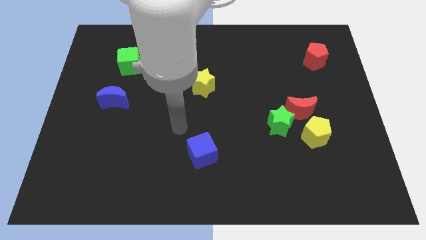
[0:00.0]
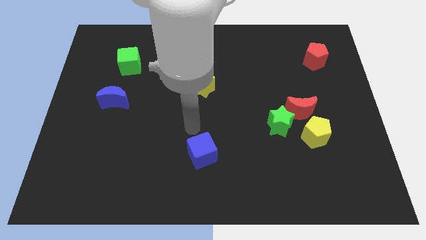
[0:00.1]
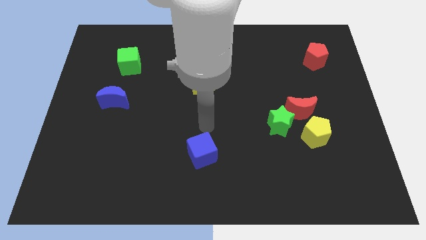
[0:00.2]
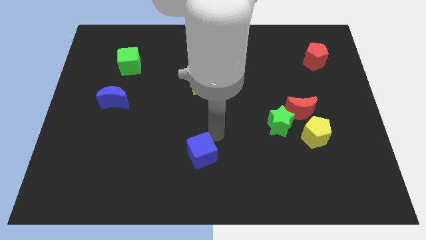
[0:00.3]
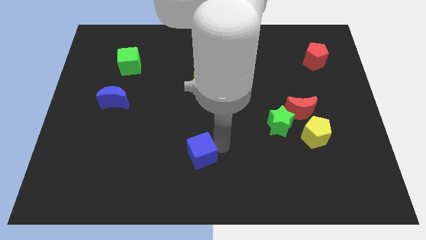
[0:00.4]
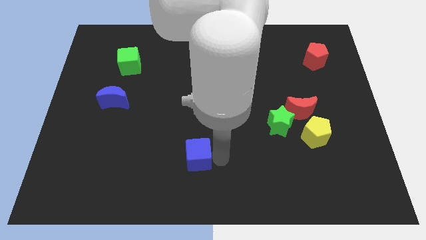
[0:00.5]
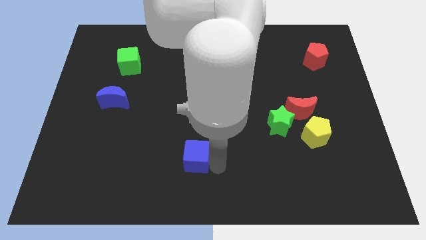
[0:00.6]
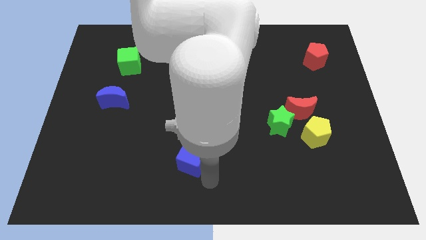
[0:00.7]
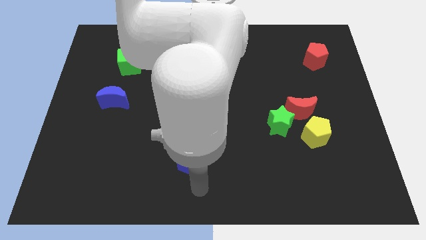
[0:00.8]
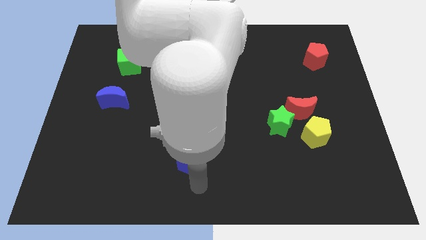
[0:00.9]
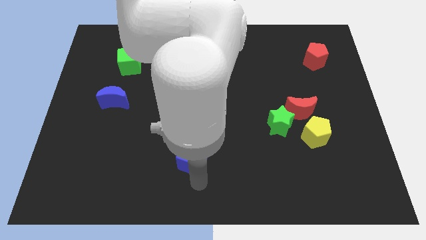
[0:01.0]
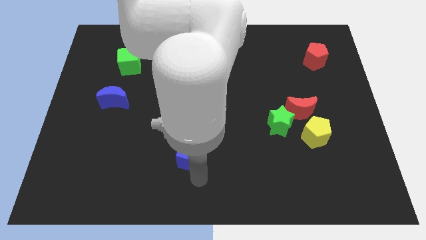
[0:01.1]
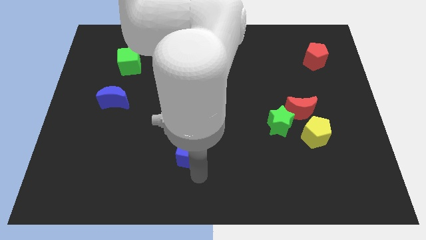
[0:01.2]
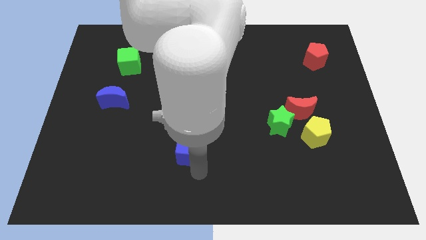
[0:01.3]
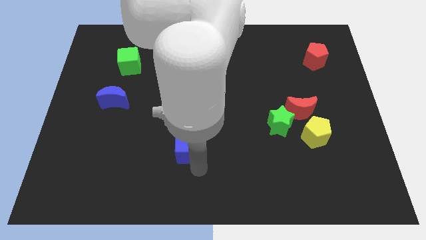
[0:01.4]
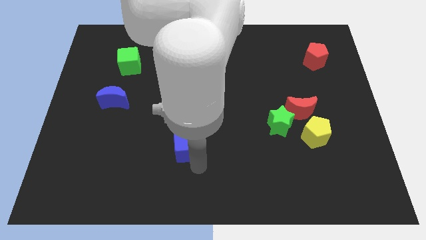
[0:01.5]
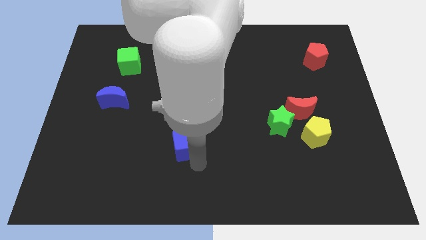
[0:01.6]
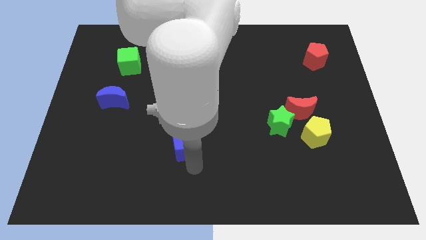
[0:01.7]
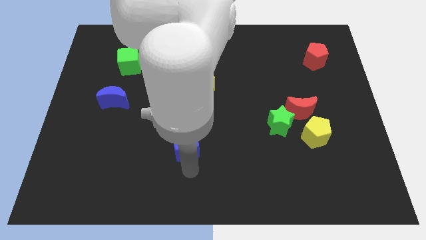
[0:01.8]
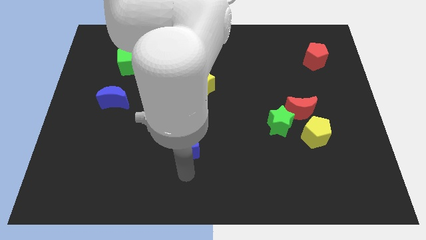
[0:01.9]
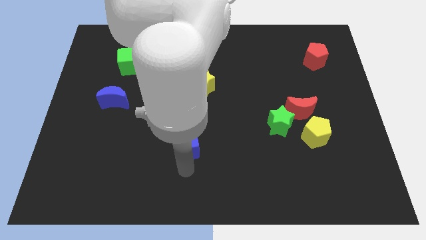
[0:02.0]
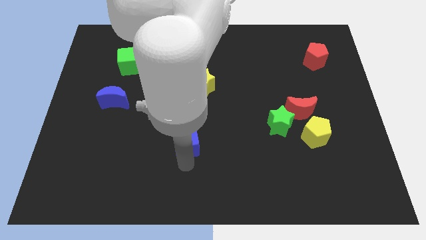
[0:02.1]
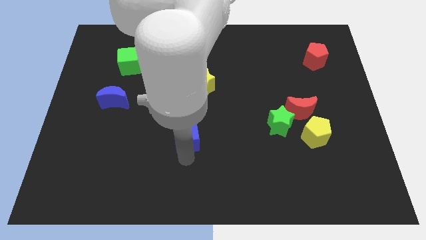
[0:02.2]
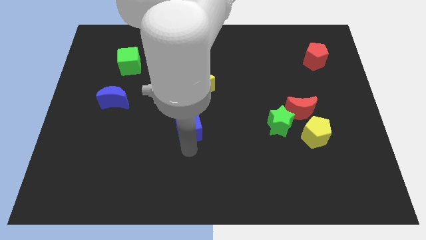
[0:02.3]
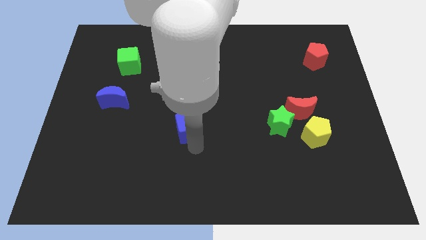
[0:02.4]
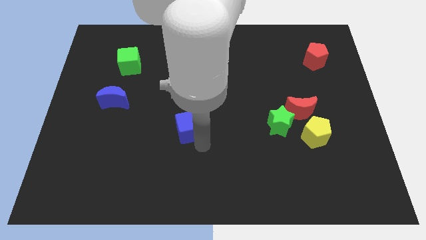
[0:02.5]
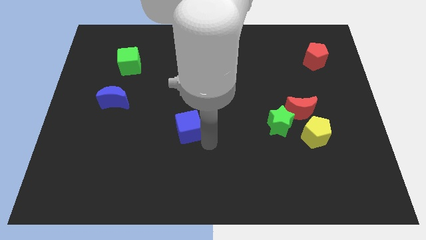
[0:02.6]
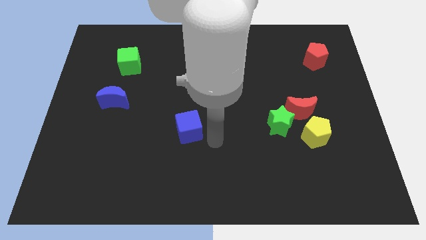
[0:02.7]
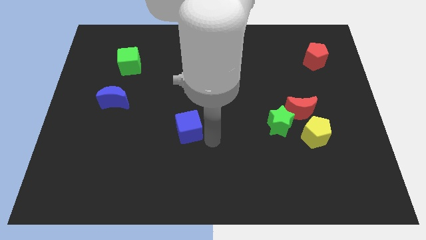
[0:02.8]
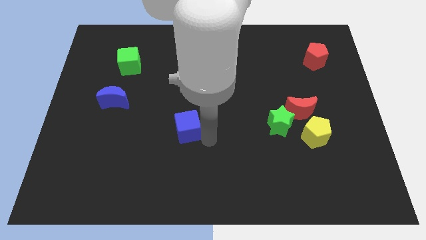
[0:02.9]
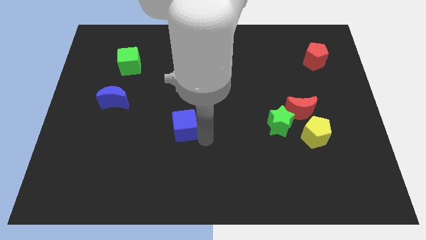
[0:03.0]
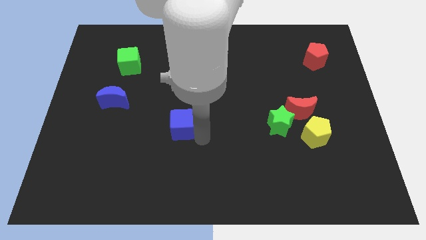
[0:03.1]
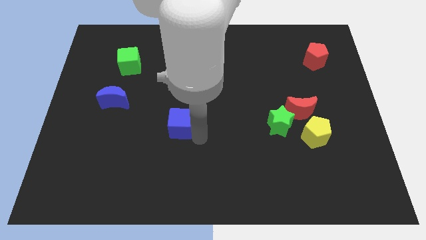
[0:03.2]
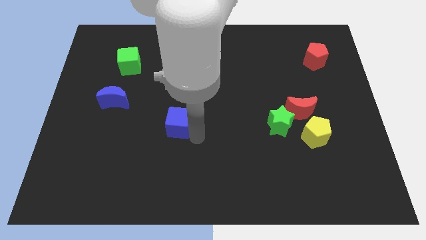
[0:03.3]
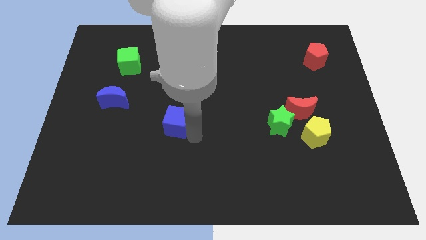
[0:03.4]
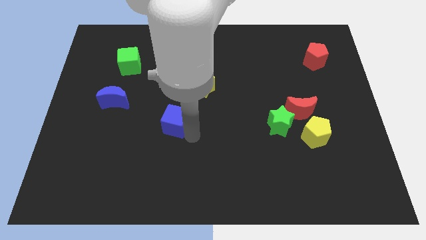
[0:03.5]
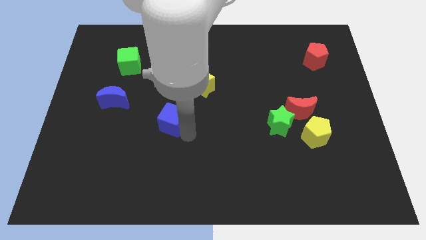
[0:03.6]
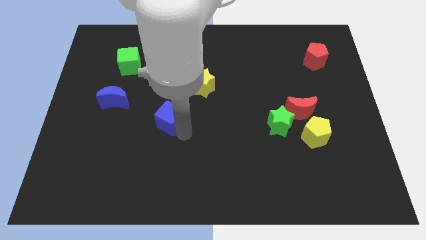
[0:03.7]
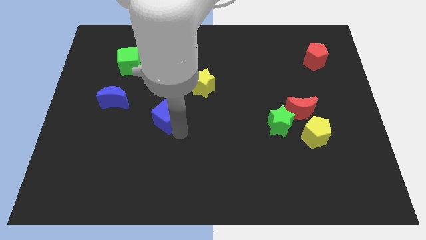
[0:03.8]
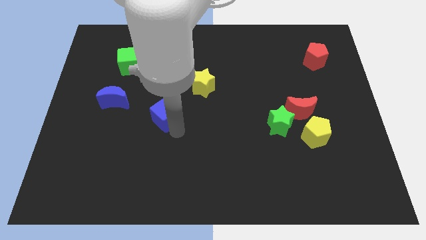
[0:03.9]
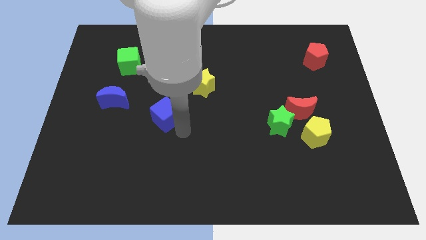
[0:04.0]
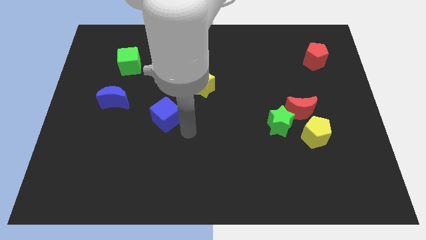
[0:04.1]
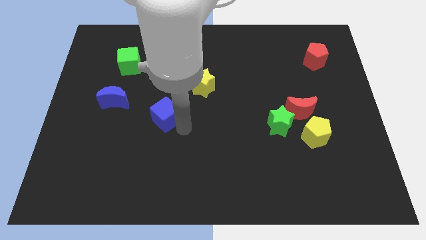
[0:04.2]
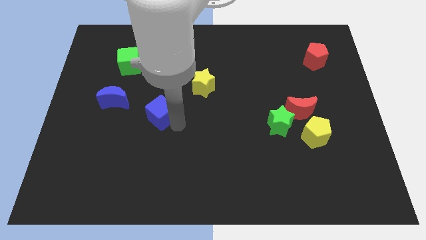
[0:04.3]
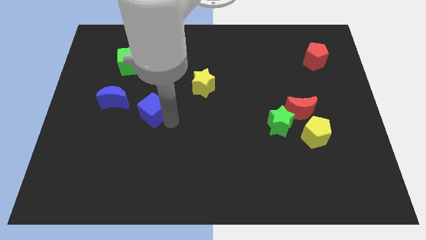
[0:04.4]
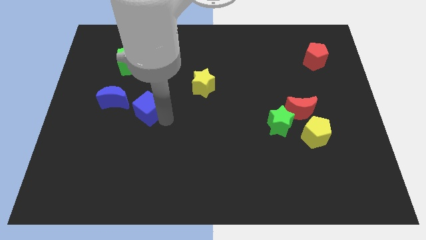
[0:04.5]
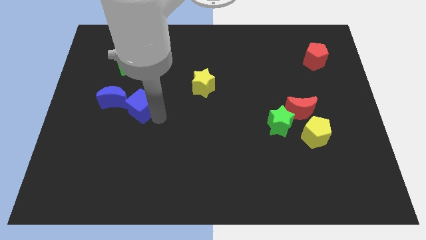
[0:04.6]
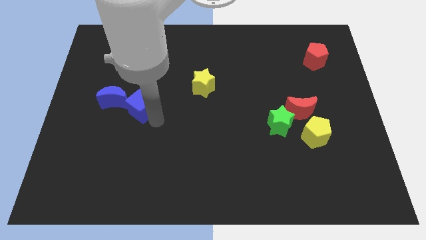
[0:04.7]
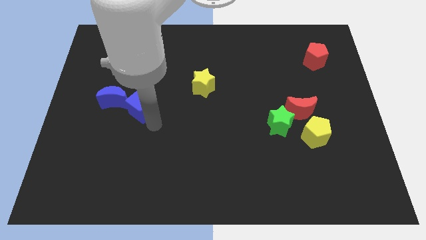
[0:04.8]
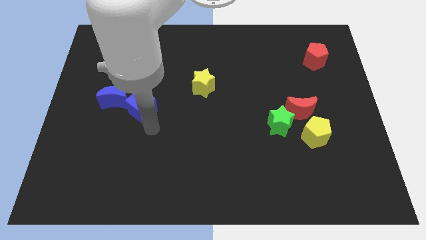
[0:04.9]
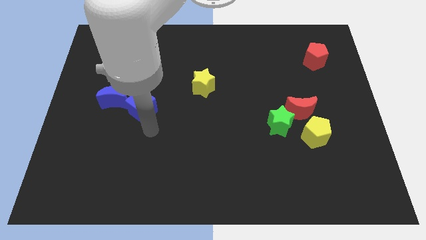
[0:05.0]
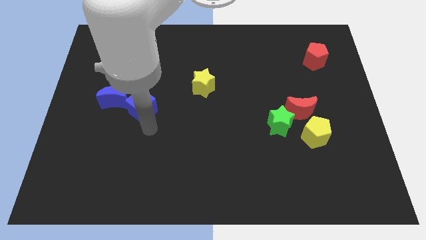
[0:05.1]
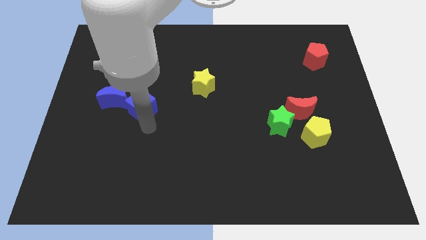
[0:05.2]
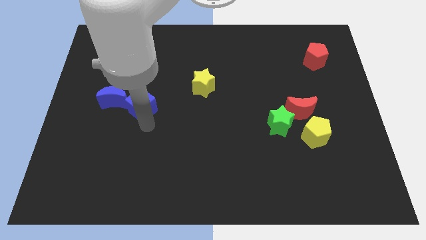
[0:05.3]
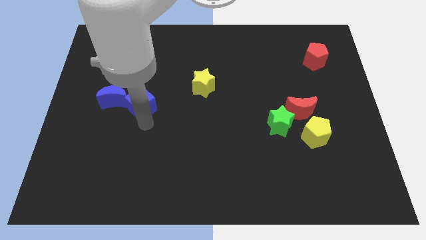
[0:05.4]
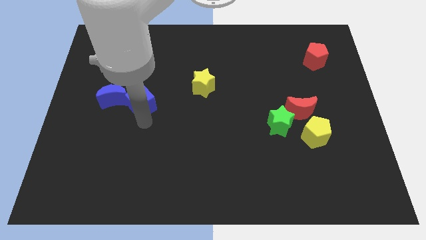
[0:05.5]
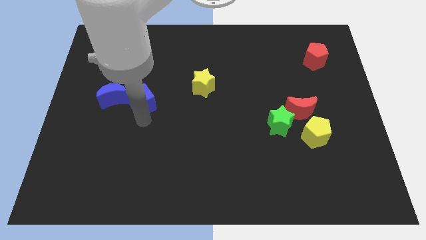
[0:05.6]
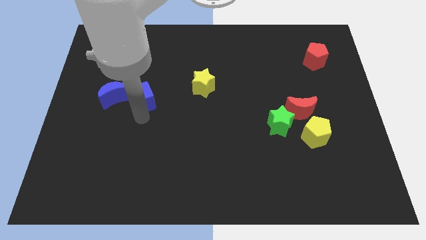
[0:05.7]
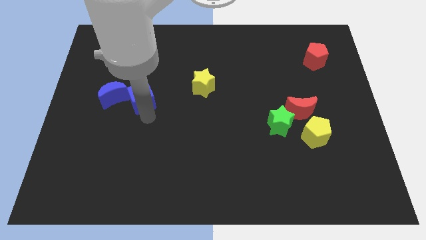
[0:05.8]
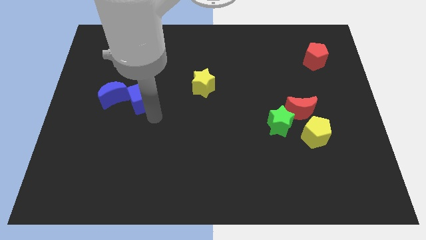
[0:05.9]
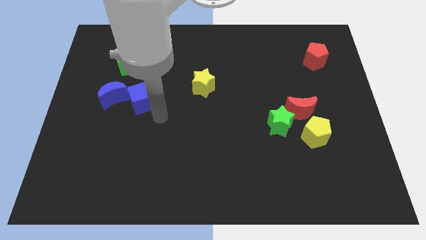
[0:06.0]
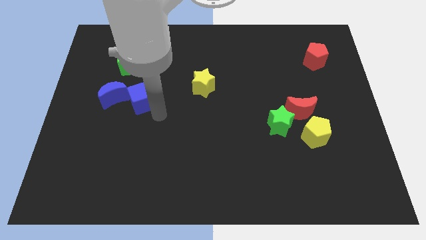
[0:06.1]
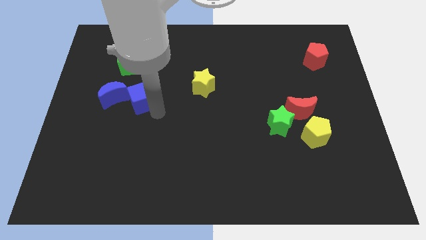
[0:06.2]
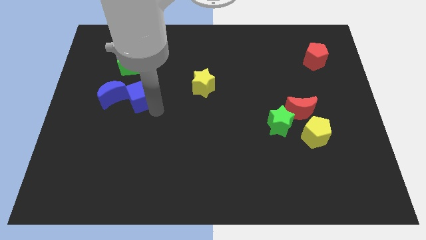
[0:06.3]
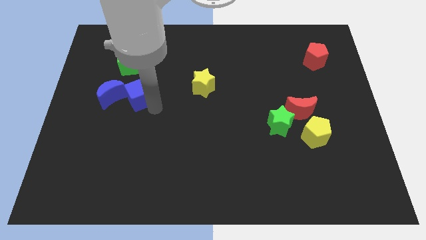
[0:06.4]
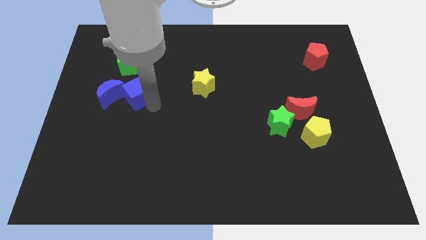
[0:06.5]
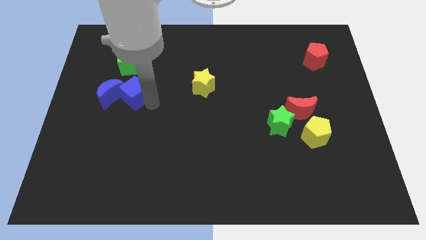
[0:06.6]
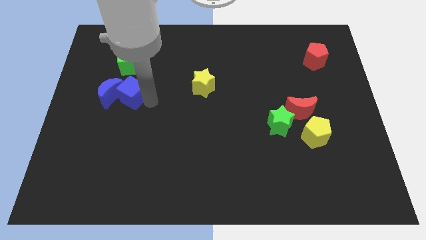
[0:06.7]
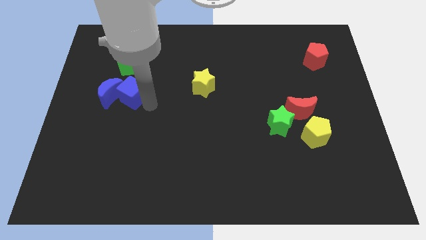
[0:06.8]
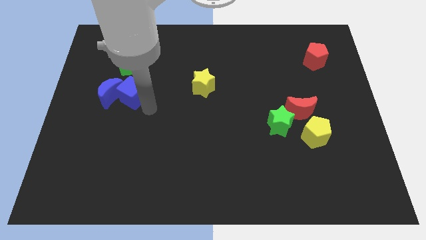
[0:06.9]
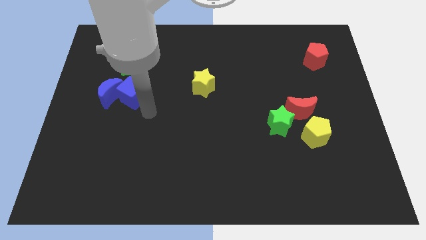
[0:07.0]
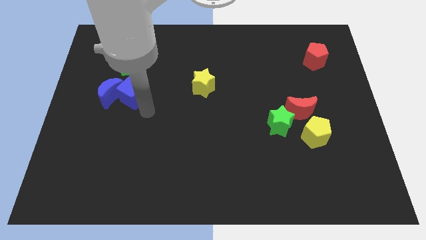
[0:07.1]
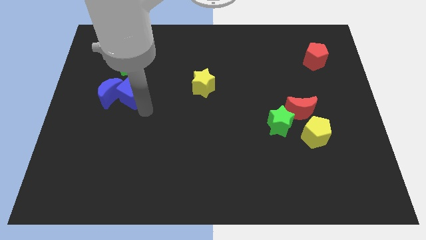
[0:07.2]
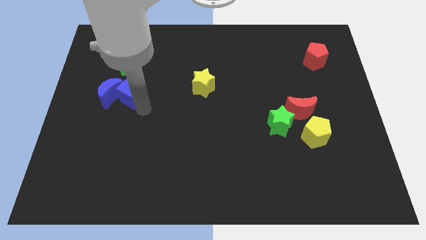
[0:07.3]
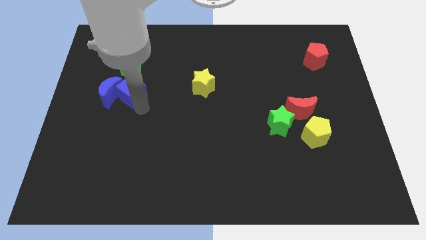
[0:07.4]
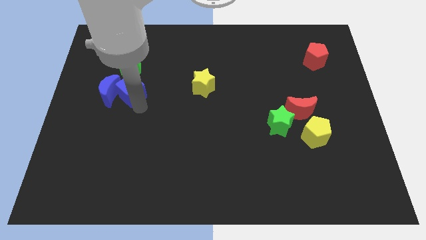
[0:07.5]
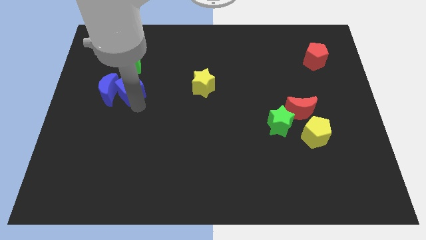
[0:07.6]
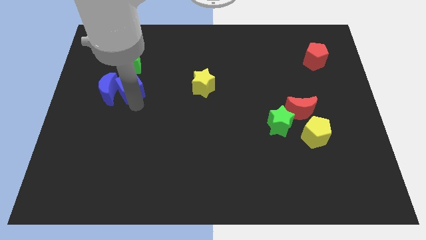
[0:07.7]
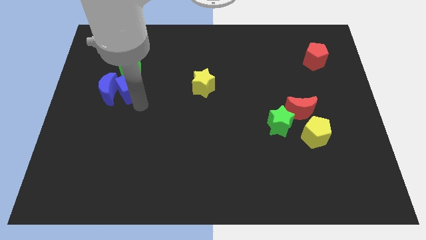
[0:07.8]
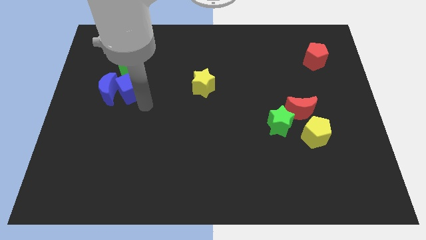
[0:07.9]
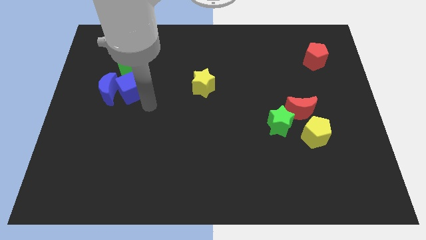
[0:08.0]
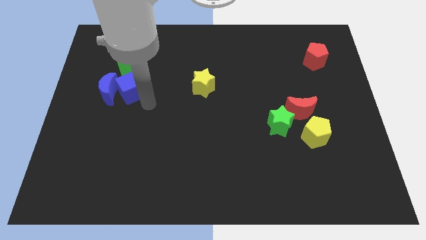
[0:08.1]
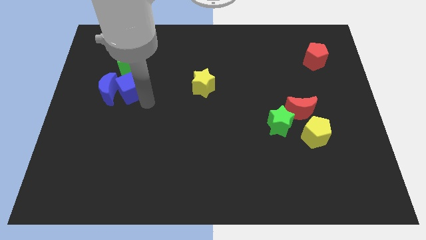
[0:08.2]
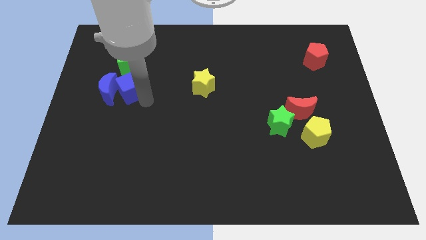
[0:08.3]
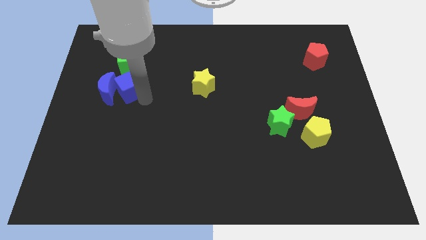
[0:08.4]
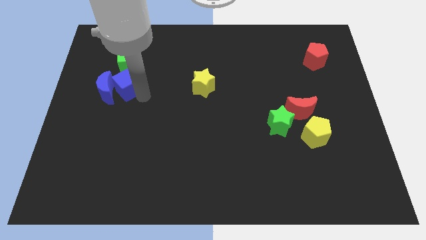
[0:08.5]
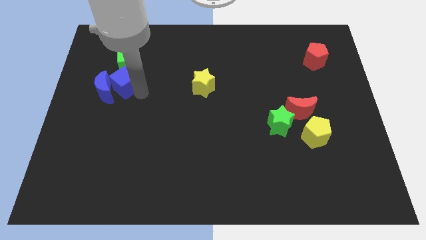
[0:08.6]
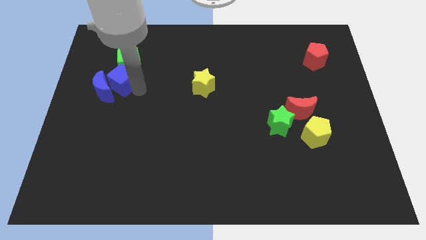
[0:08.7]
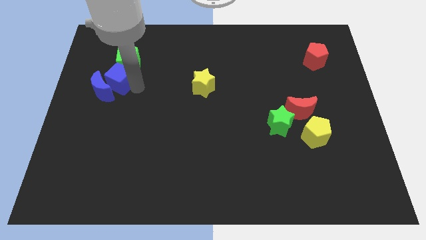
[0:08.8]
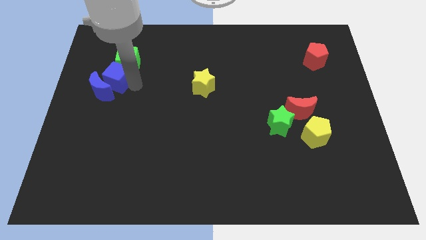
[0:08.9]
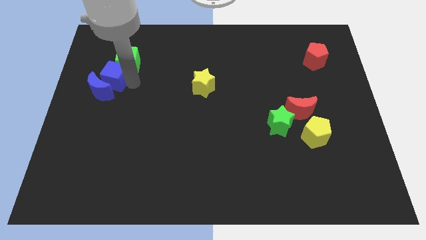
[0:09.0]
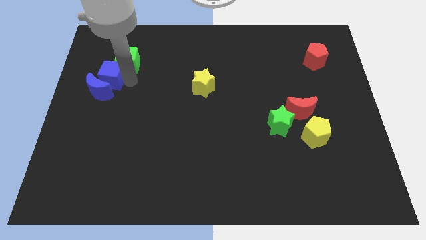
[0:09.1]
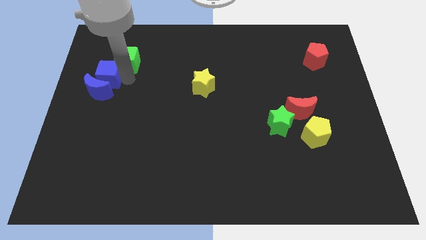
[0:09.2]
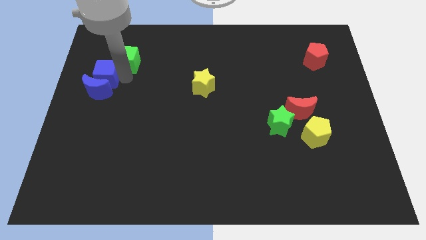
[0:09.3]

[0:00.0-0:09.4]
push the blue cube to the top left of the blue moon
